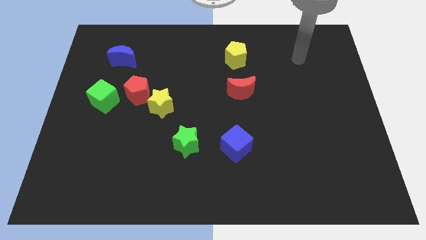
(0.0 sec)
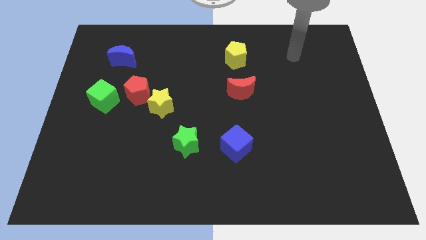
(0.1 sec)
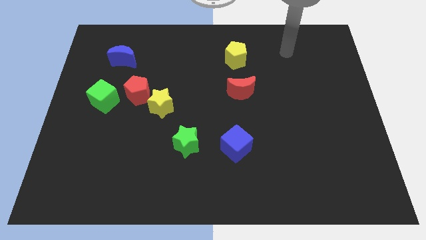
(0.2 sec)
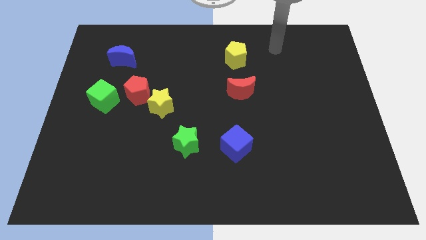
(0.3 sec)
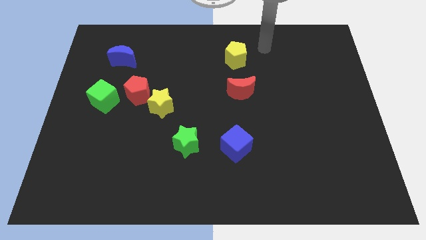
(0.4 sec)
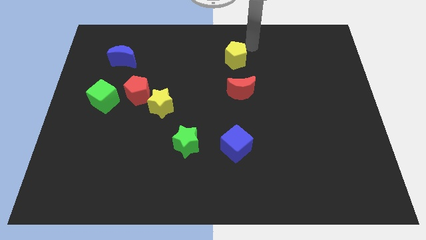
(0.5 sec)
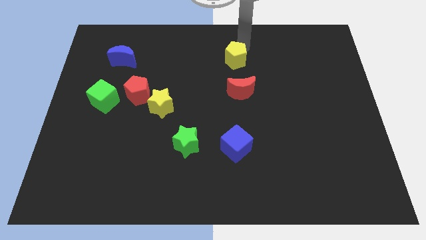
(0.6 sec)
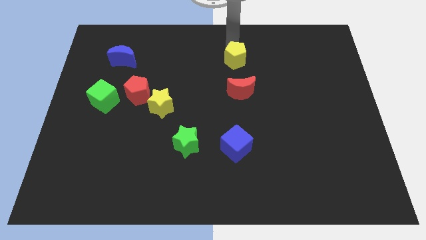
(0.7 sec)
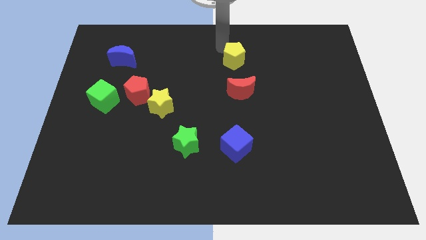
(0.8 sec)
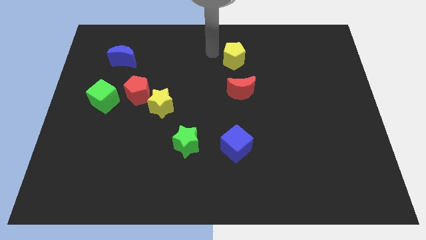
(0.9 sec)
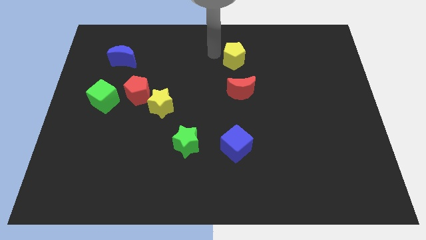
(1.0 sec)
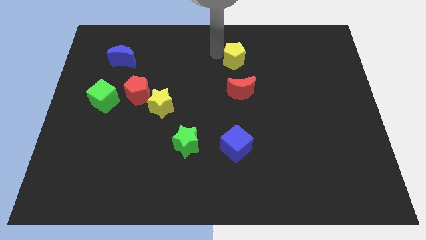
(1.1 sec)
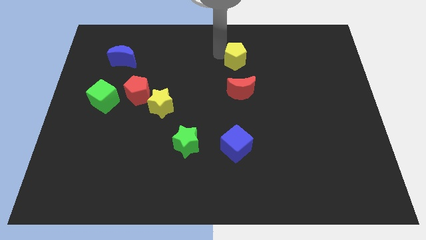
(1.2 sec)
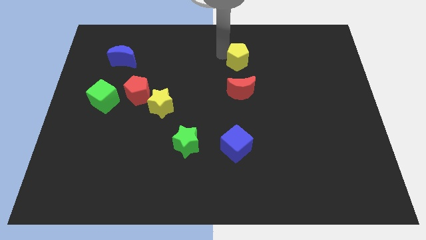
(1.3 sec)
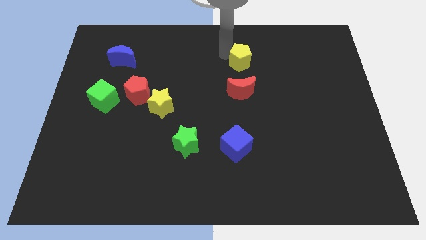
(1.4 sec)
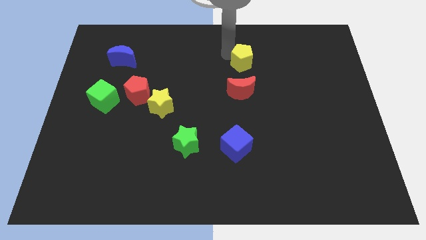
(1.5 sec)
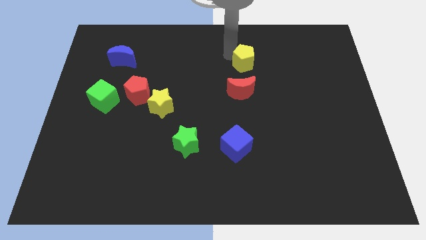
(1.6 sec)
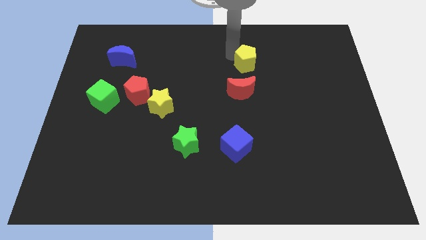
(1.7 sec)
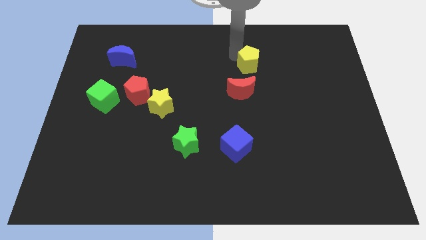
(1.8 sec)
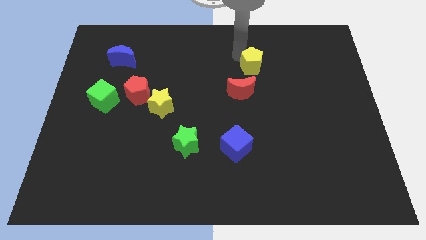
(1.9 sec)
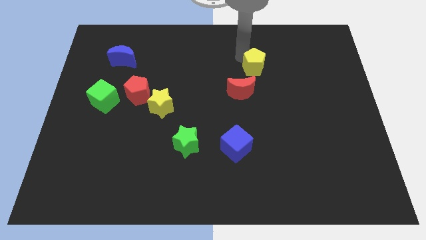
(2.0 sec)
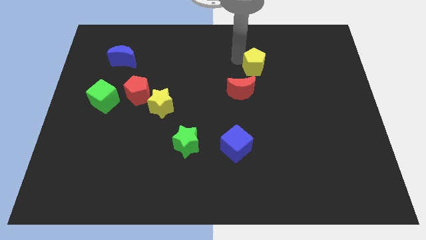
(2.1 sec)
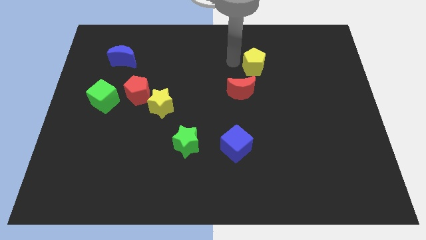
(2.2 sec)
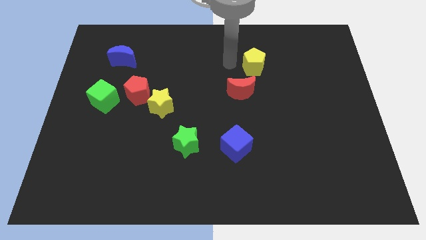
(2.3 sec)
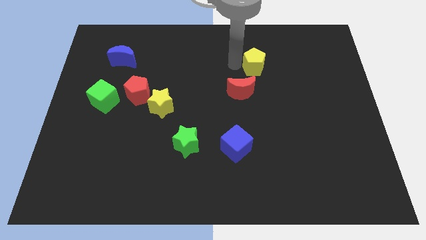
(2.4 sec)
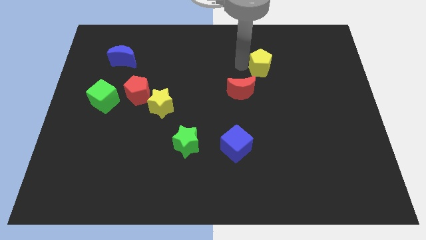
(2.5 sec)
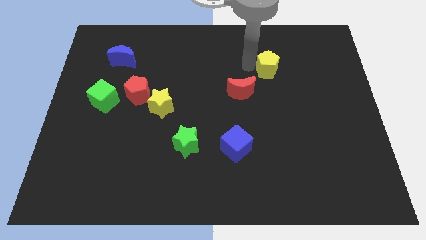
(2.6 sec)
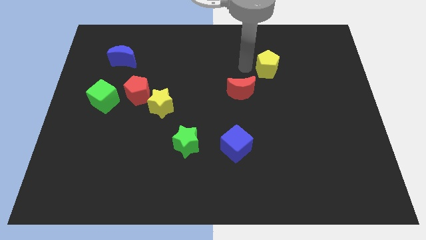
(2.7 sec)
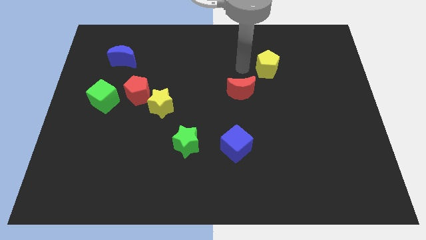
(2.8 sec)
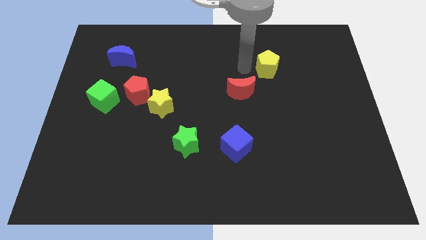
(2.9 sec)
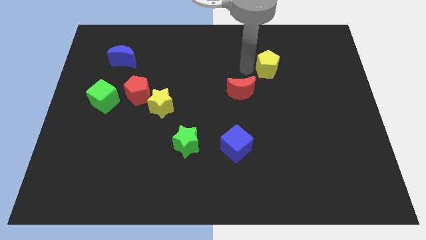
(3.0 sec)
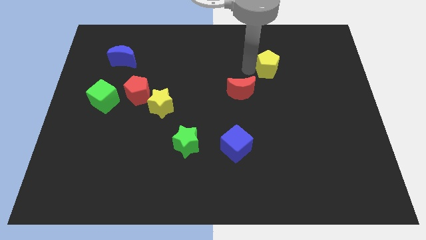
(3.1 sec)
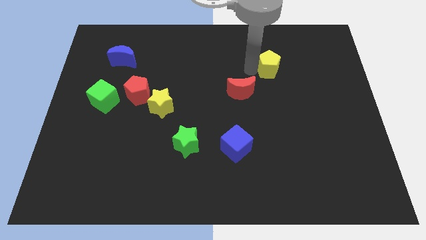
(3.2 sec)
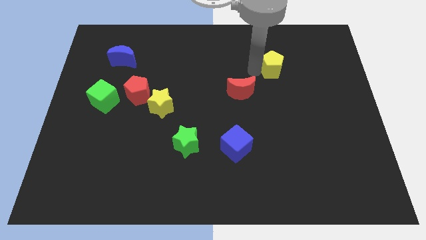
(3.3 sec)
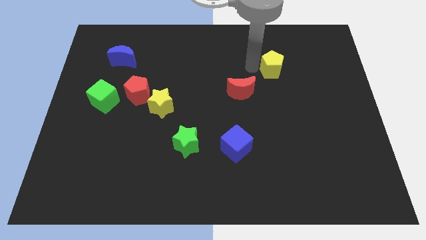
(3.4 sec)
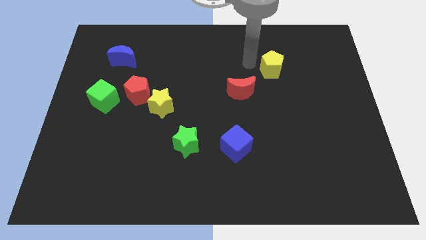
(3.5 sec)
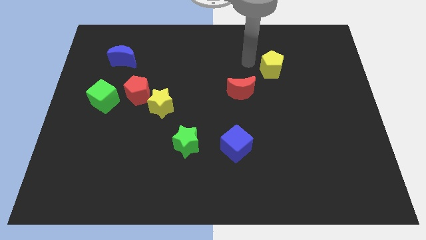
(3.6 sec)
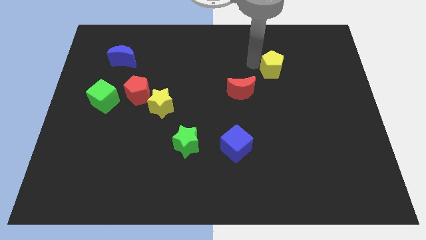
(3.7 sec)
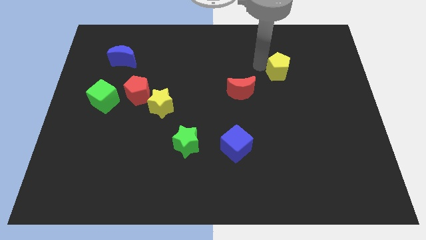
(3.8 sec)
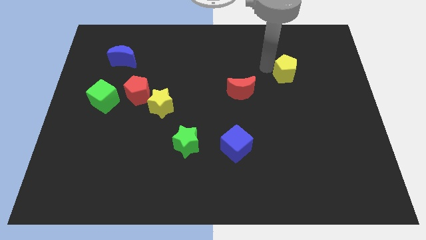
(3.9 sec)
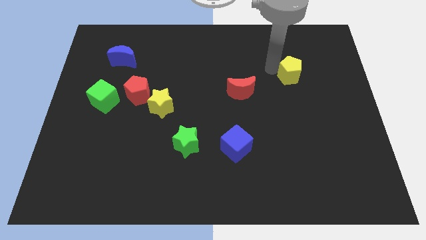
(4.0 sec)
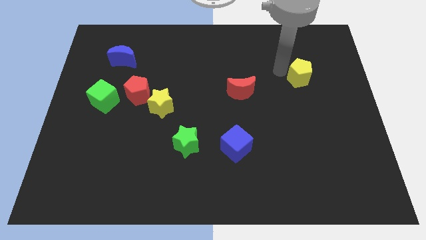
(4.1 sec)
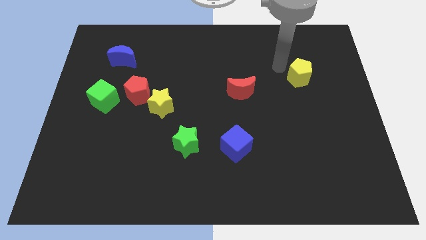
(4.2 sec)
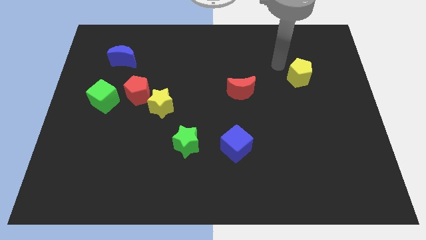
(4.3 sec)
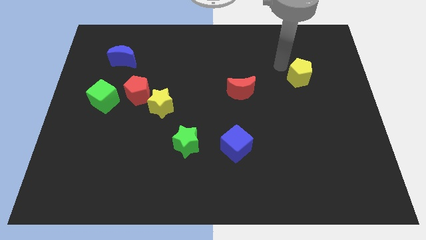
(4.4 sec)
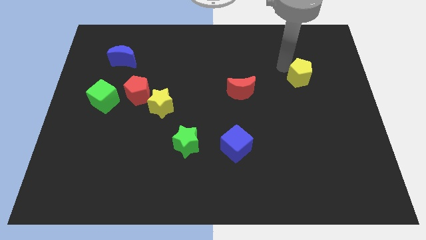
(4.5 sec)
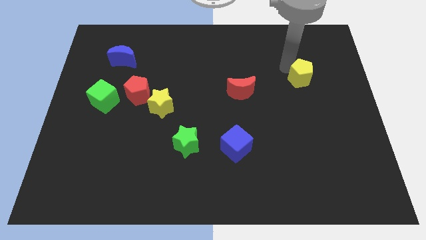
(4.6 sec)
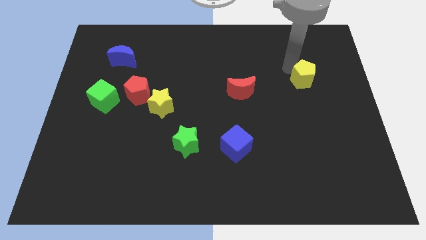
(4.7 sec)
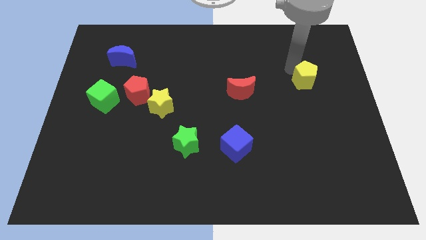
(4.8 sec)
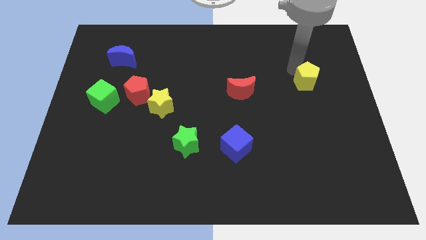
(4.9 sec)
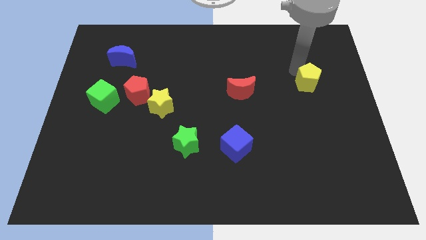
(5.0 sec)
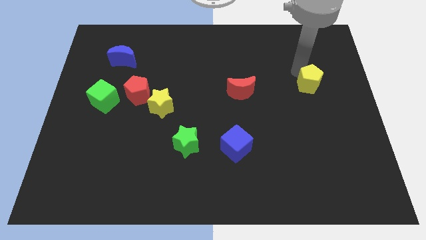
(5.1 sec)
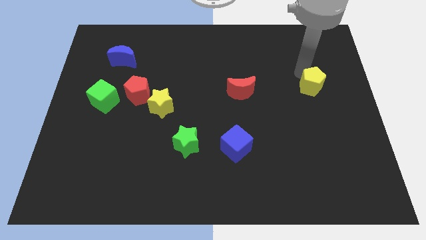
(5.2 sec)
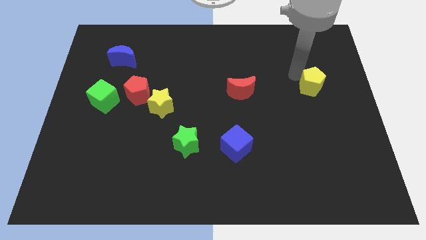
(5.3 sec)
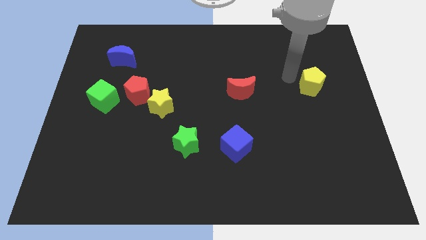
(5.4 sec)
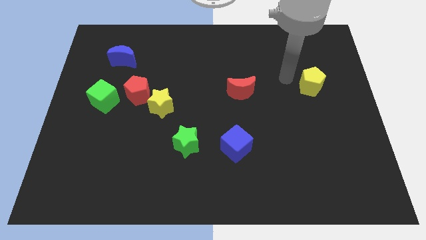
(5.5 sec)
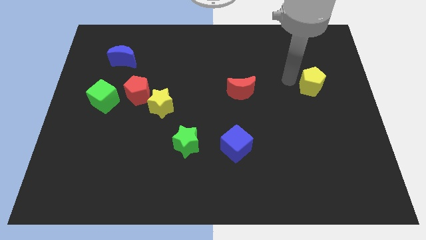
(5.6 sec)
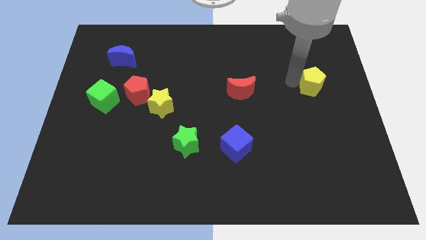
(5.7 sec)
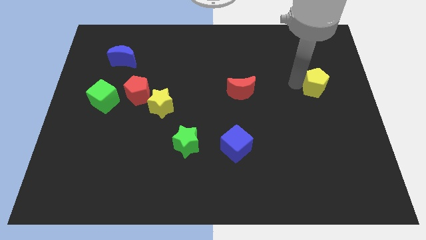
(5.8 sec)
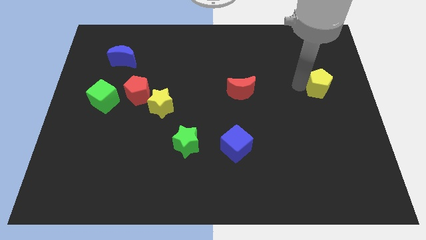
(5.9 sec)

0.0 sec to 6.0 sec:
push the yellow pentagon to the right side of the board

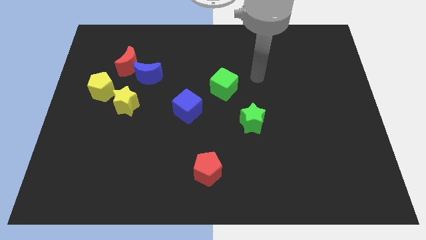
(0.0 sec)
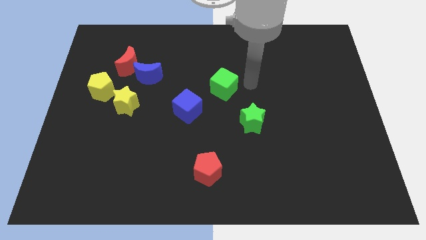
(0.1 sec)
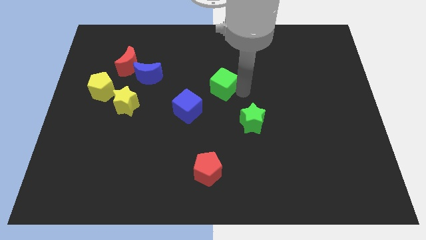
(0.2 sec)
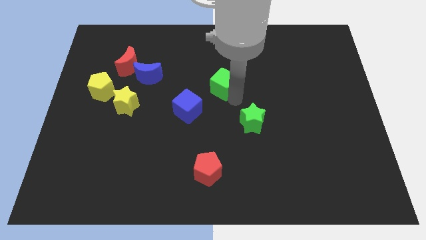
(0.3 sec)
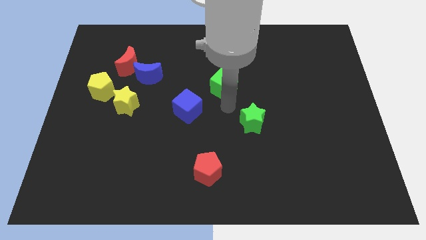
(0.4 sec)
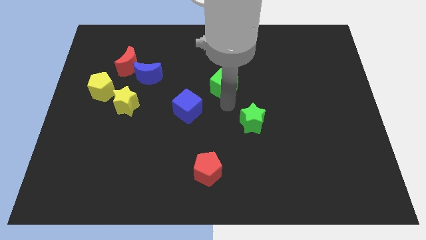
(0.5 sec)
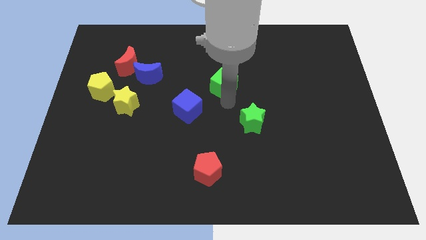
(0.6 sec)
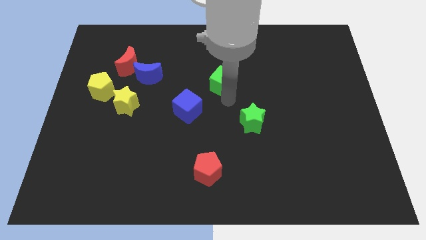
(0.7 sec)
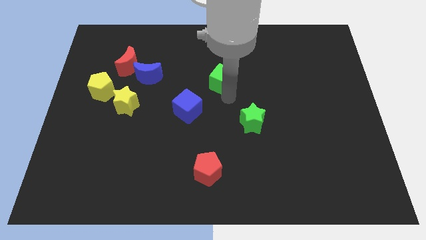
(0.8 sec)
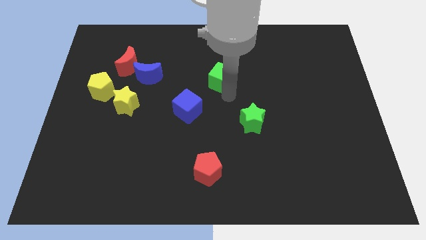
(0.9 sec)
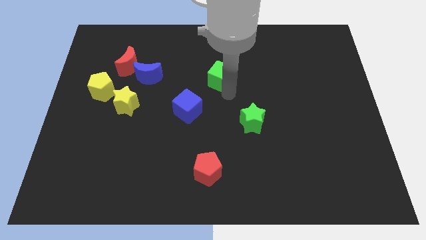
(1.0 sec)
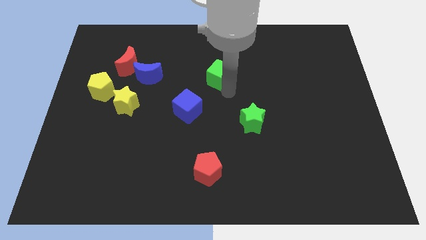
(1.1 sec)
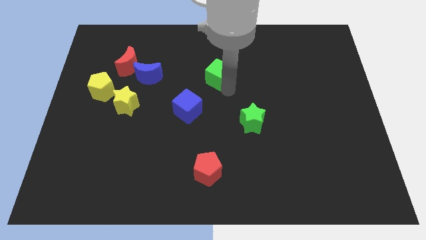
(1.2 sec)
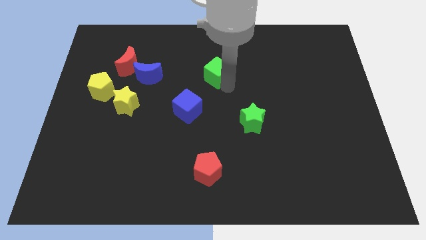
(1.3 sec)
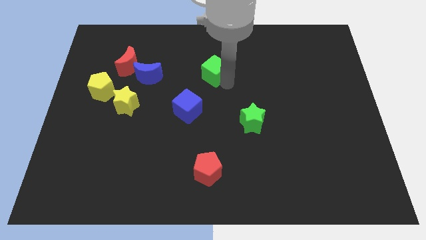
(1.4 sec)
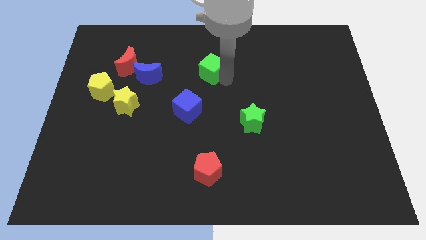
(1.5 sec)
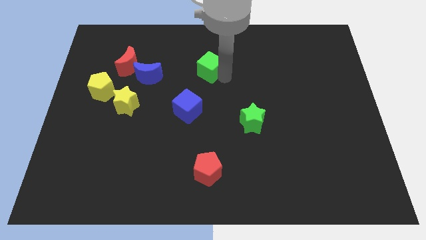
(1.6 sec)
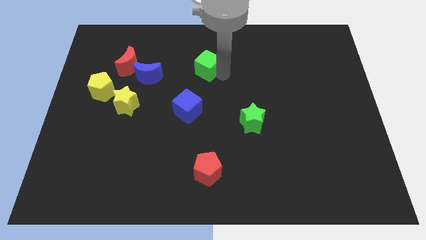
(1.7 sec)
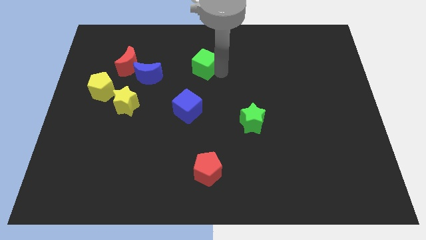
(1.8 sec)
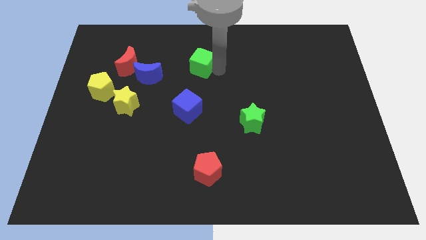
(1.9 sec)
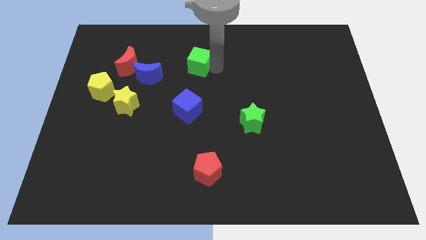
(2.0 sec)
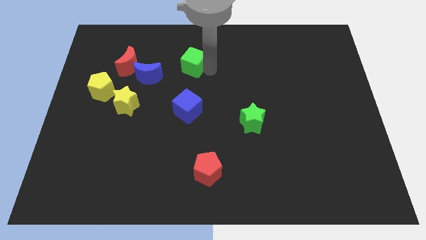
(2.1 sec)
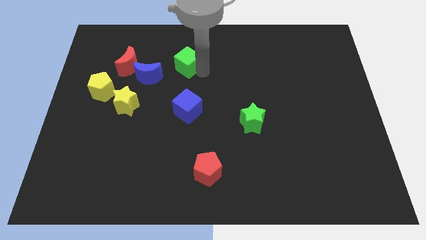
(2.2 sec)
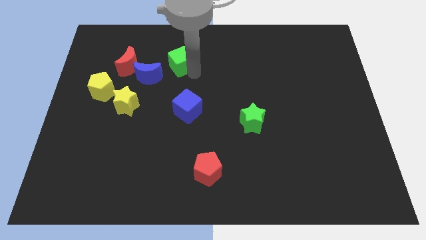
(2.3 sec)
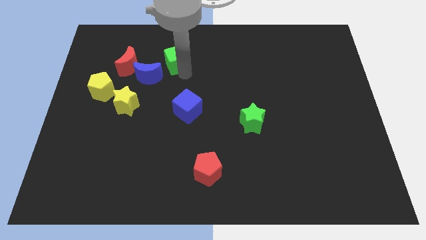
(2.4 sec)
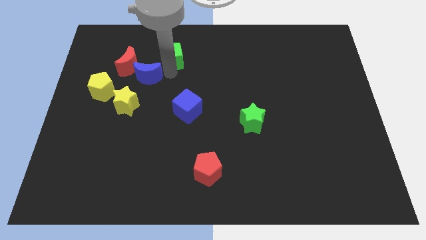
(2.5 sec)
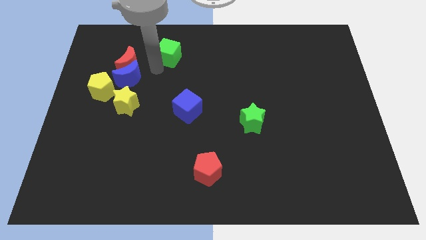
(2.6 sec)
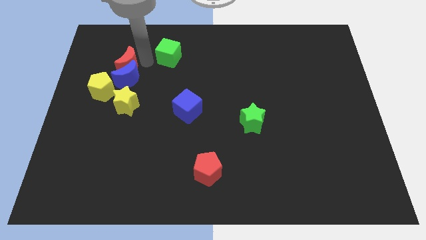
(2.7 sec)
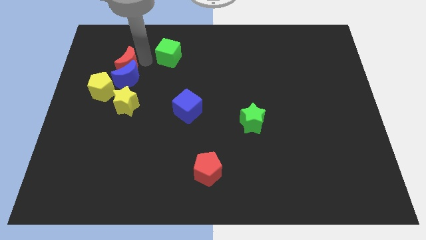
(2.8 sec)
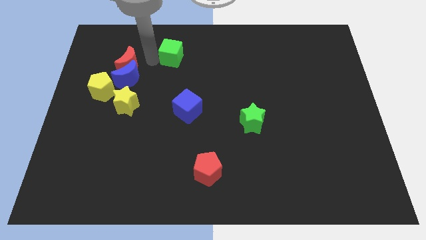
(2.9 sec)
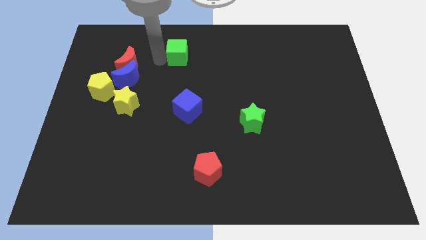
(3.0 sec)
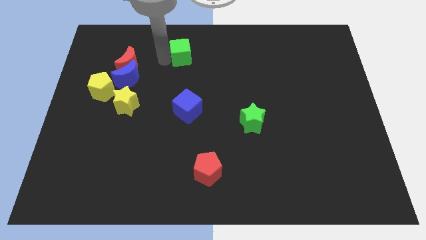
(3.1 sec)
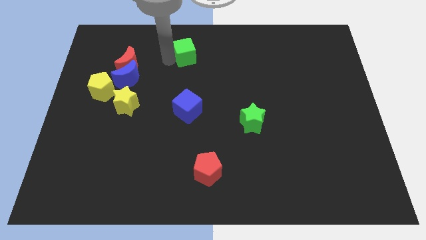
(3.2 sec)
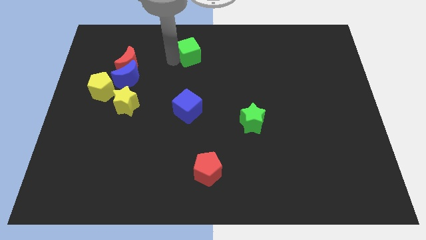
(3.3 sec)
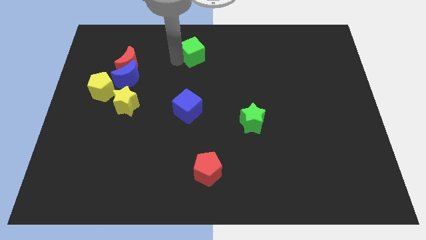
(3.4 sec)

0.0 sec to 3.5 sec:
push the green cube to the top
